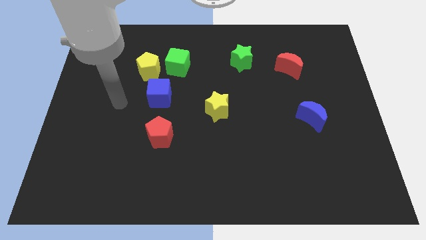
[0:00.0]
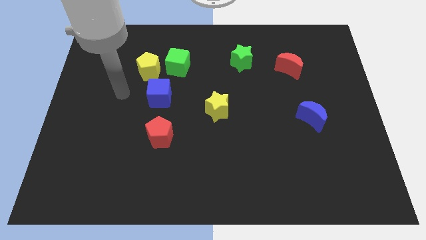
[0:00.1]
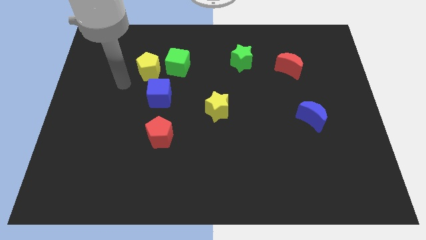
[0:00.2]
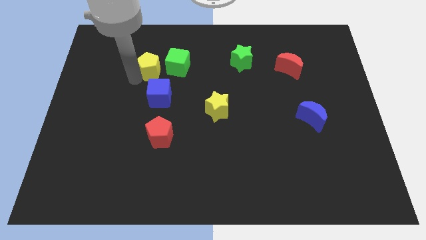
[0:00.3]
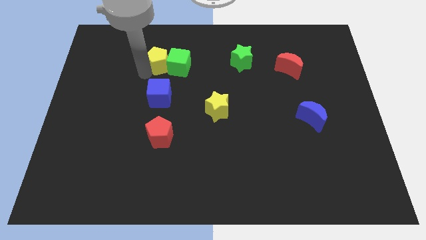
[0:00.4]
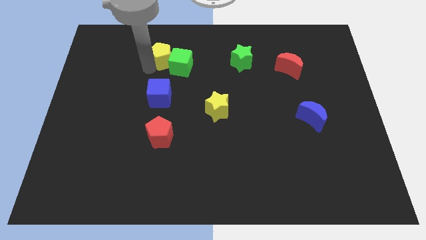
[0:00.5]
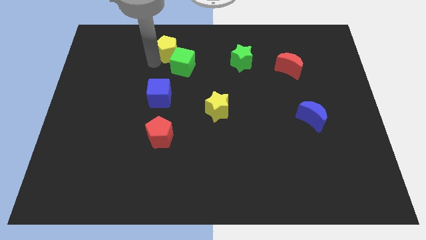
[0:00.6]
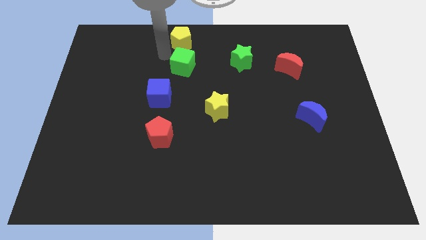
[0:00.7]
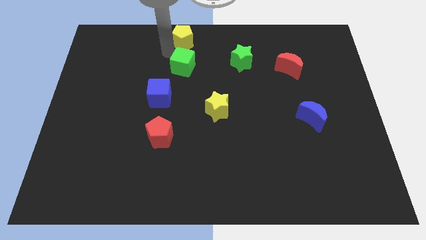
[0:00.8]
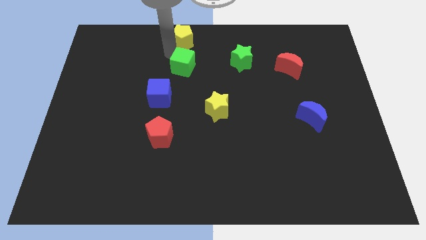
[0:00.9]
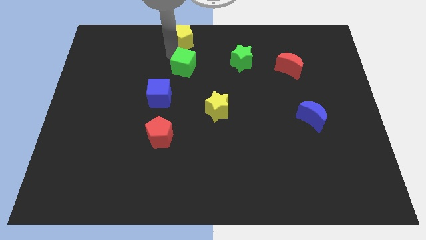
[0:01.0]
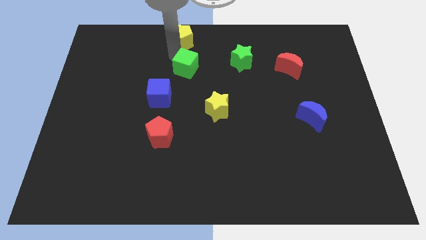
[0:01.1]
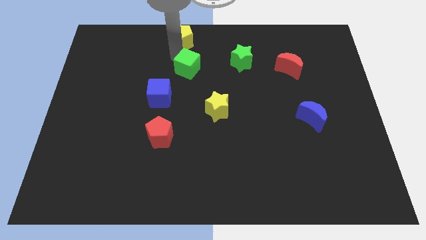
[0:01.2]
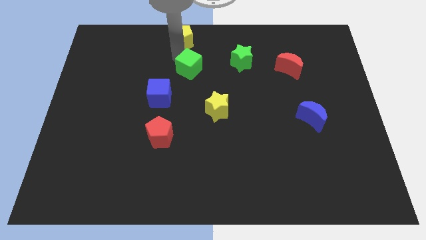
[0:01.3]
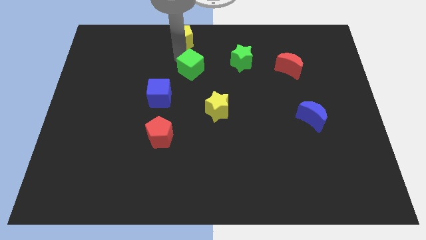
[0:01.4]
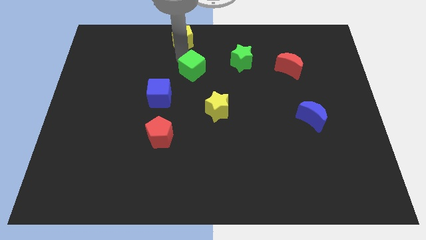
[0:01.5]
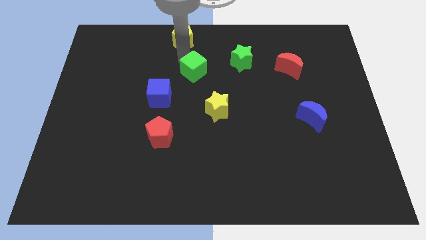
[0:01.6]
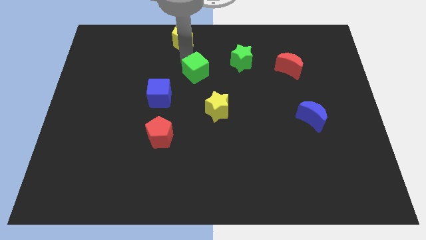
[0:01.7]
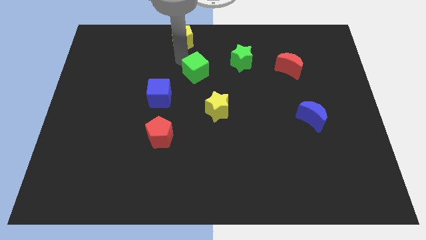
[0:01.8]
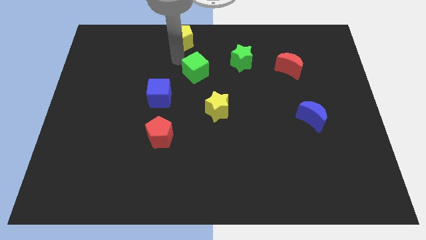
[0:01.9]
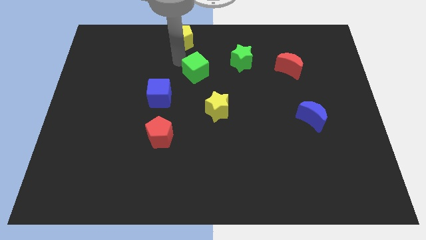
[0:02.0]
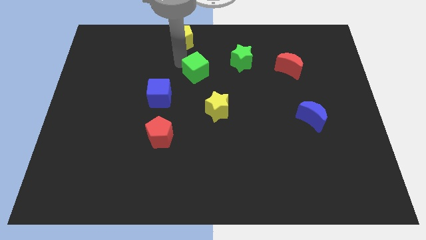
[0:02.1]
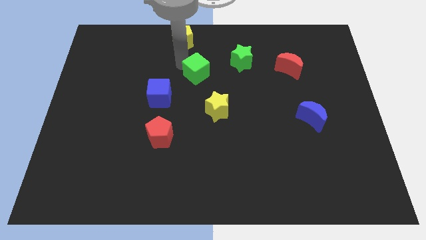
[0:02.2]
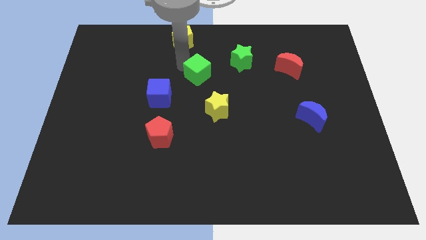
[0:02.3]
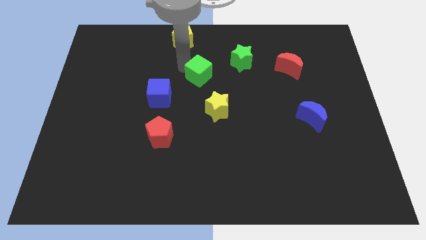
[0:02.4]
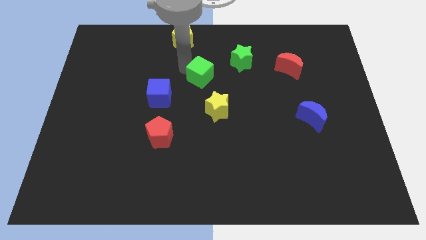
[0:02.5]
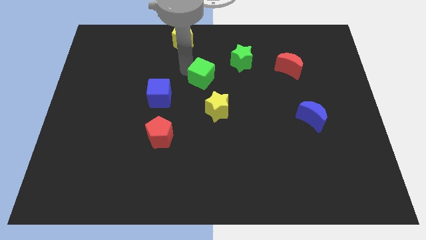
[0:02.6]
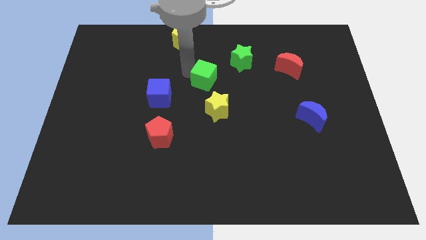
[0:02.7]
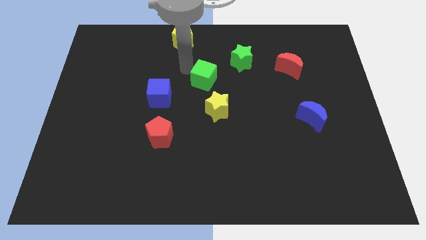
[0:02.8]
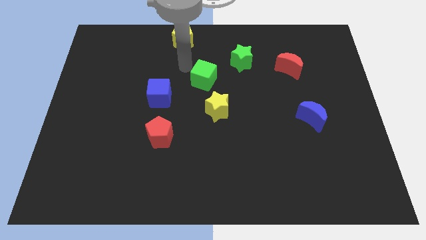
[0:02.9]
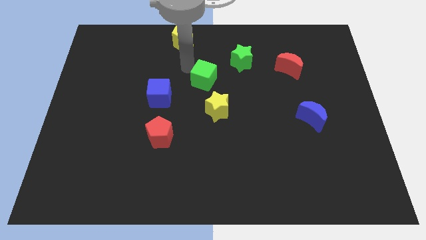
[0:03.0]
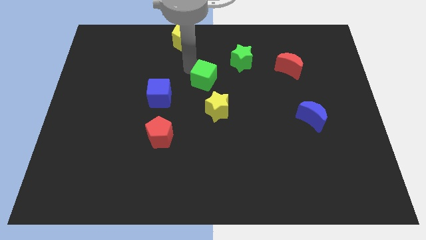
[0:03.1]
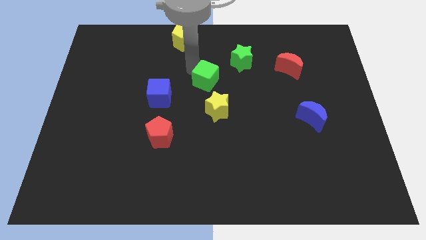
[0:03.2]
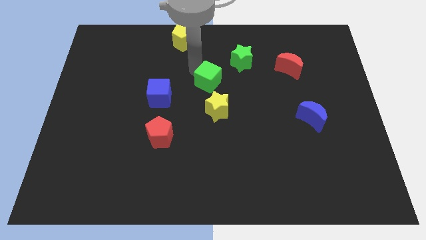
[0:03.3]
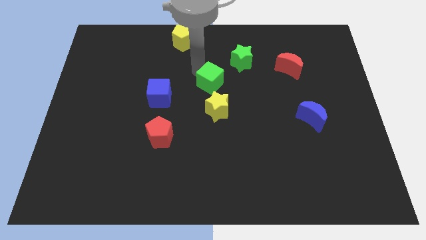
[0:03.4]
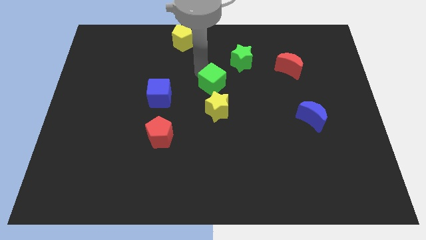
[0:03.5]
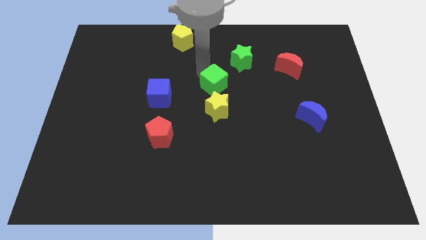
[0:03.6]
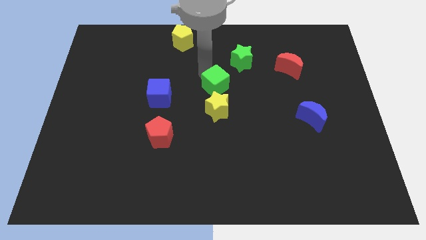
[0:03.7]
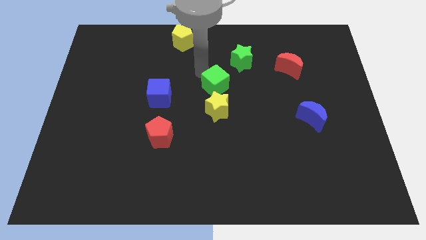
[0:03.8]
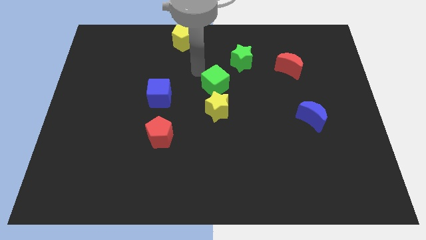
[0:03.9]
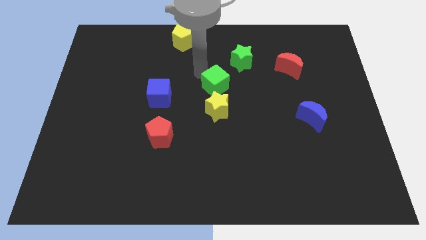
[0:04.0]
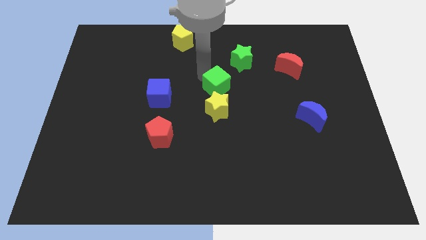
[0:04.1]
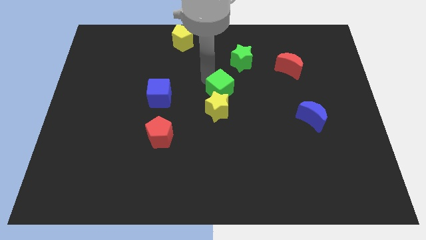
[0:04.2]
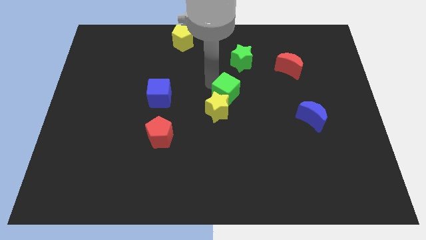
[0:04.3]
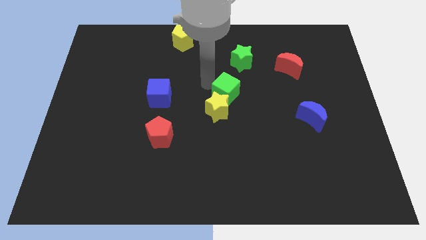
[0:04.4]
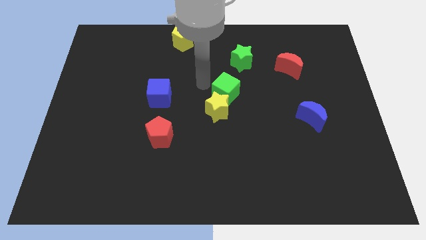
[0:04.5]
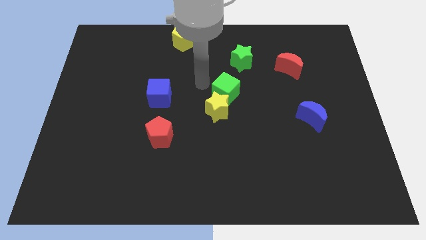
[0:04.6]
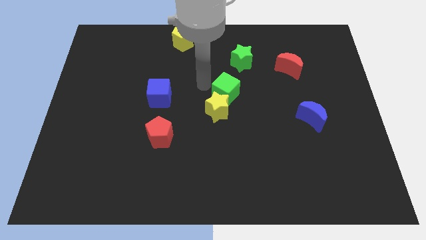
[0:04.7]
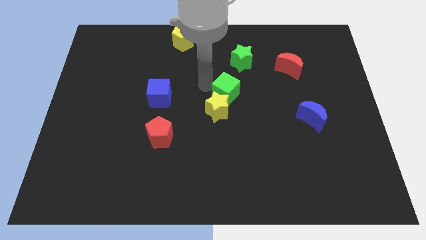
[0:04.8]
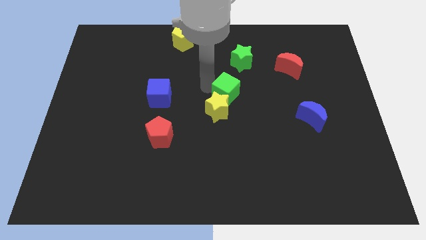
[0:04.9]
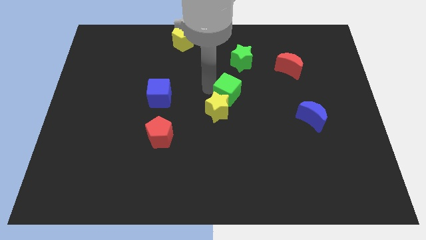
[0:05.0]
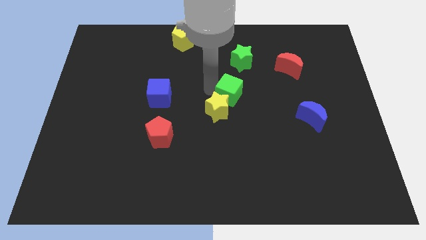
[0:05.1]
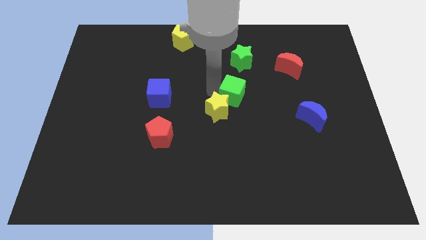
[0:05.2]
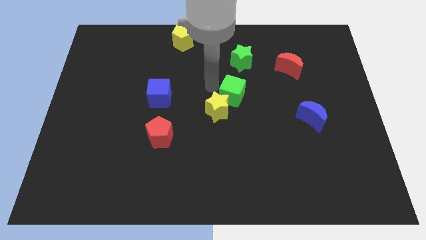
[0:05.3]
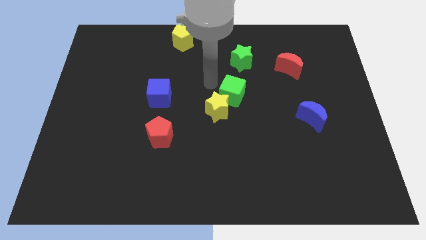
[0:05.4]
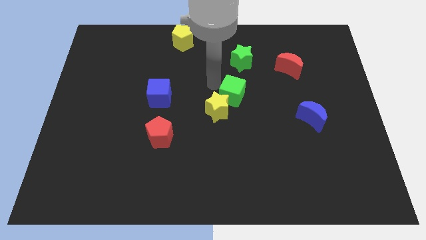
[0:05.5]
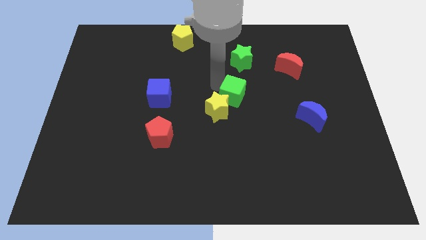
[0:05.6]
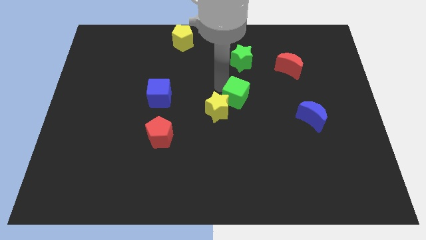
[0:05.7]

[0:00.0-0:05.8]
put the green cube right of the yellow star

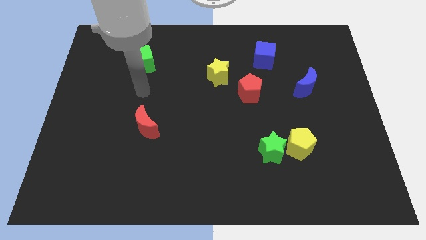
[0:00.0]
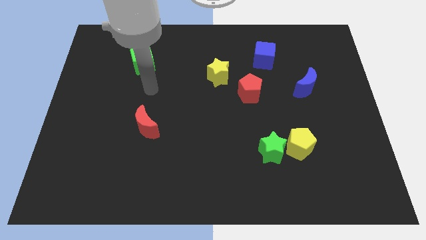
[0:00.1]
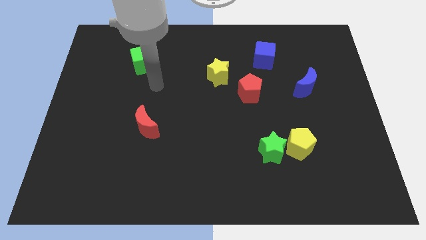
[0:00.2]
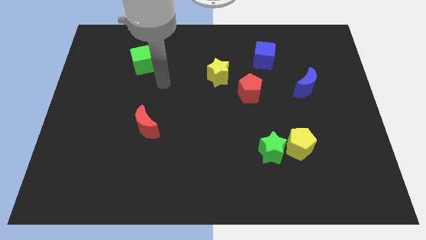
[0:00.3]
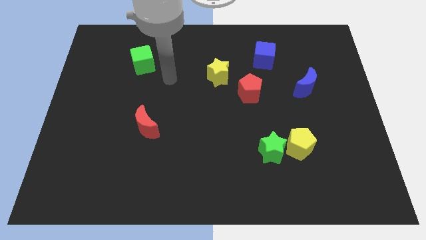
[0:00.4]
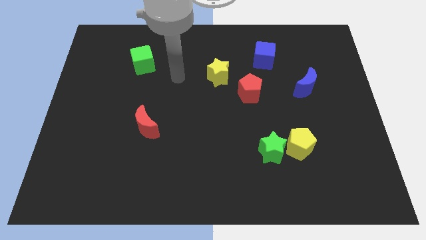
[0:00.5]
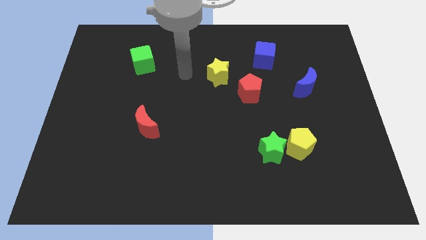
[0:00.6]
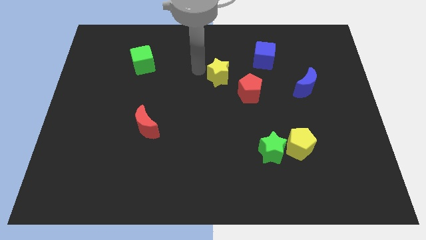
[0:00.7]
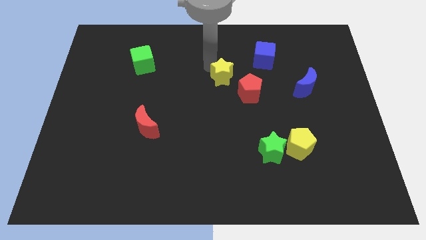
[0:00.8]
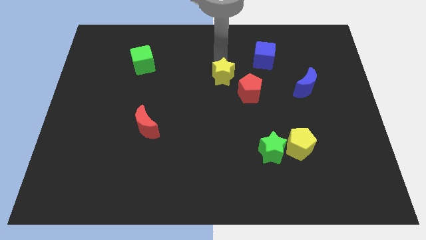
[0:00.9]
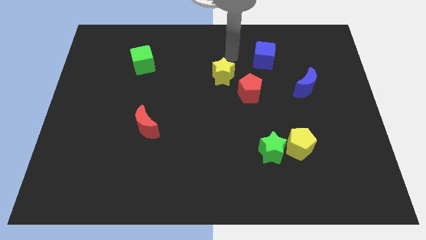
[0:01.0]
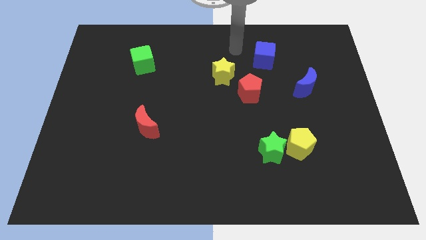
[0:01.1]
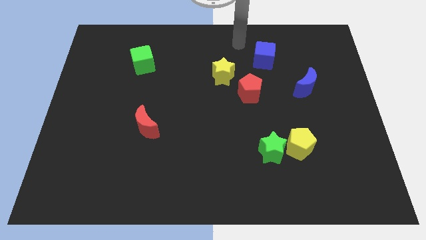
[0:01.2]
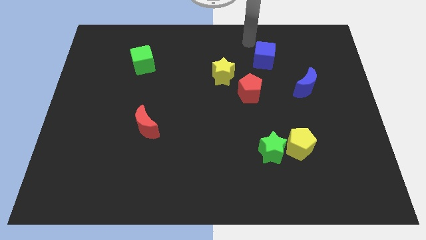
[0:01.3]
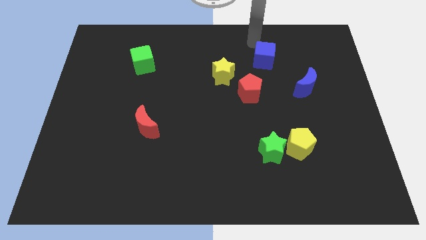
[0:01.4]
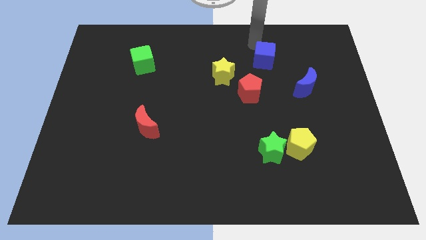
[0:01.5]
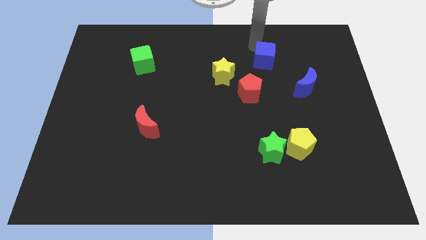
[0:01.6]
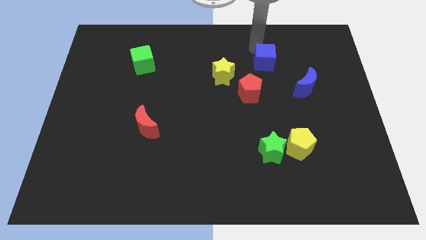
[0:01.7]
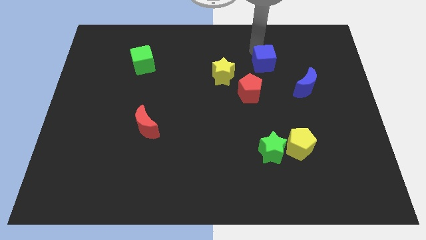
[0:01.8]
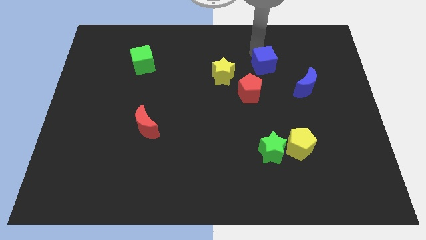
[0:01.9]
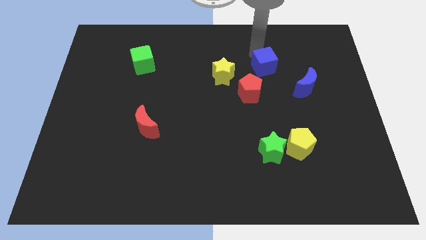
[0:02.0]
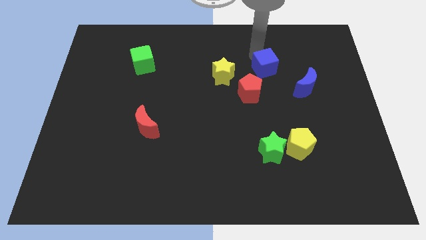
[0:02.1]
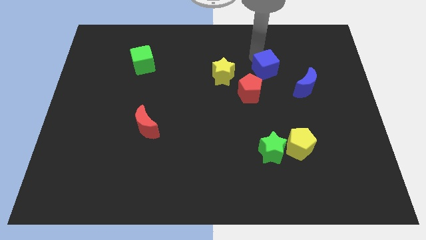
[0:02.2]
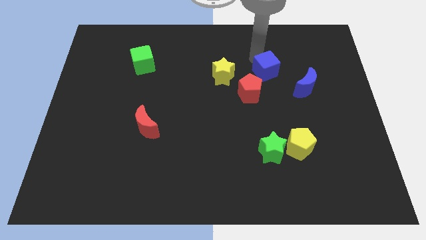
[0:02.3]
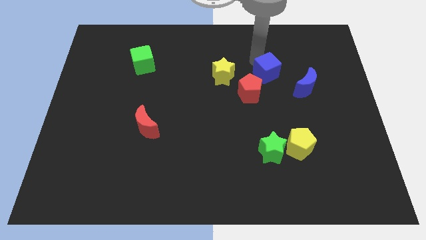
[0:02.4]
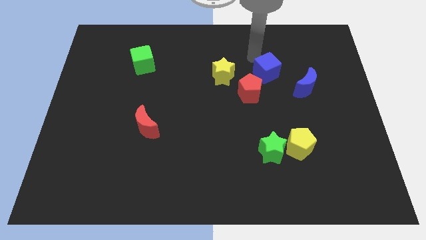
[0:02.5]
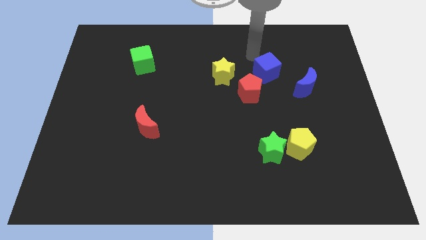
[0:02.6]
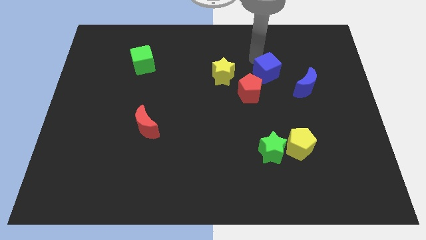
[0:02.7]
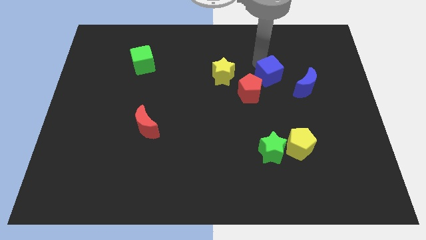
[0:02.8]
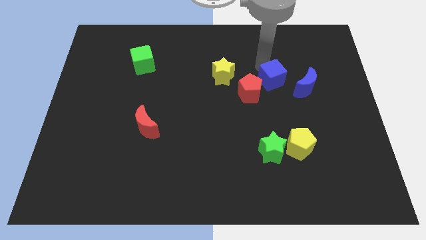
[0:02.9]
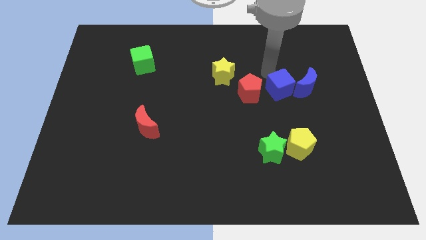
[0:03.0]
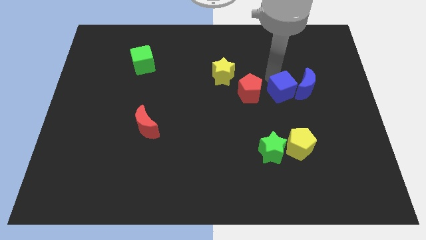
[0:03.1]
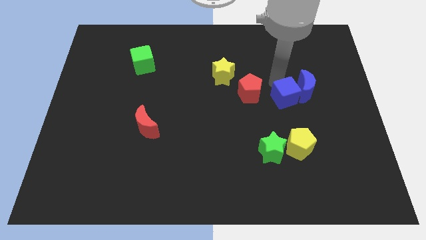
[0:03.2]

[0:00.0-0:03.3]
move the blue cube above the yellow pentagon
